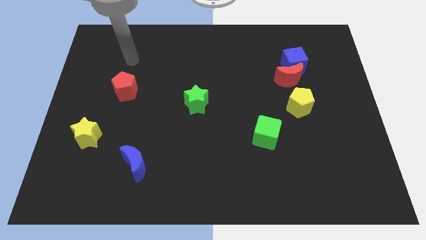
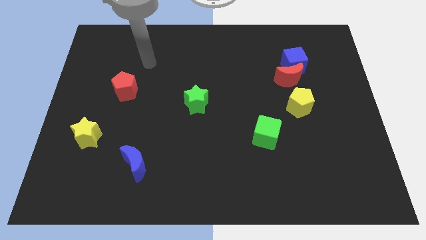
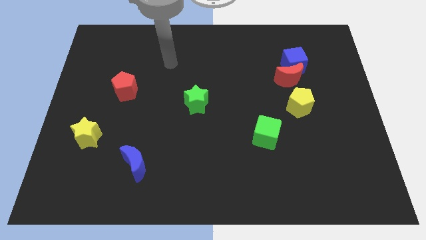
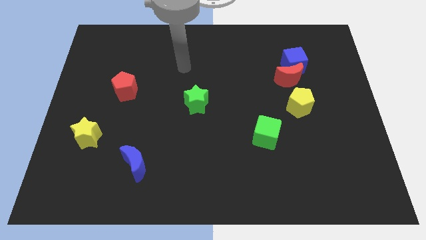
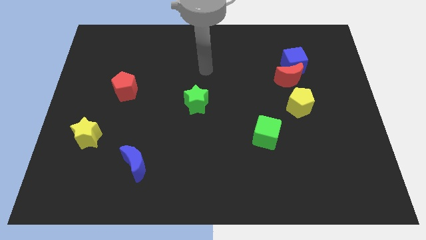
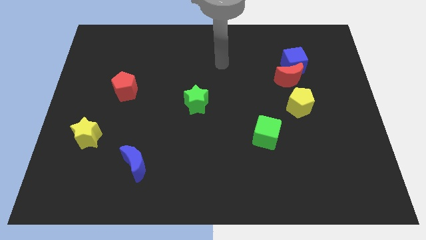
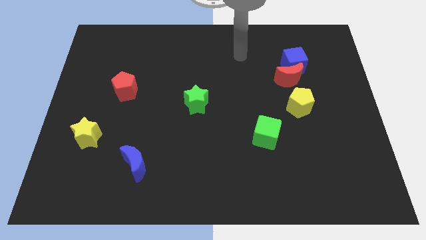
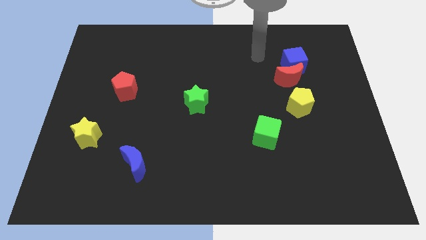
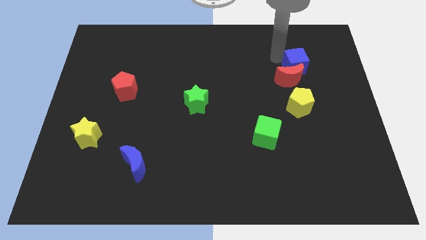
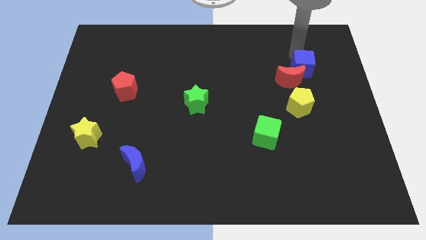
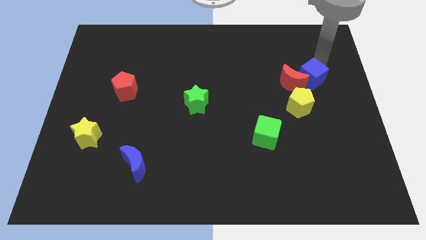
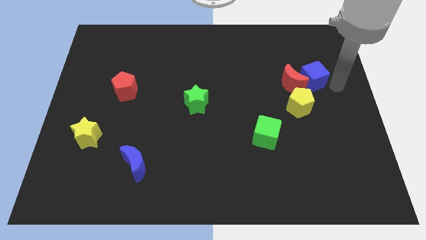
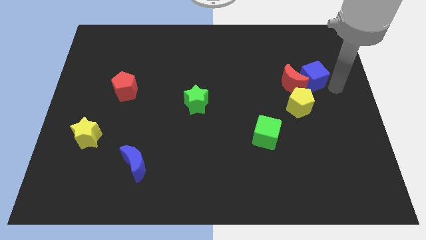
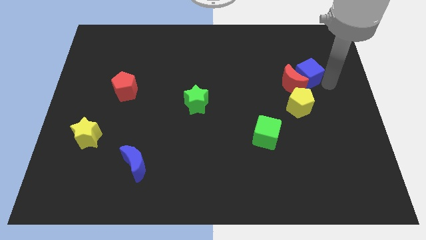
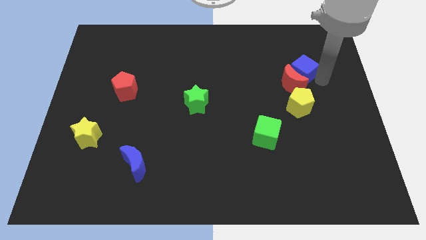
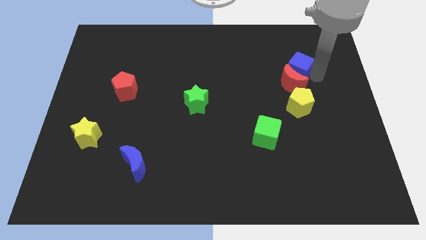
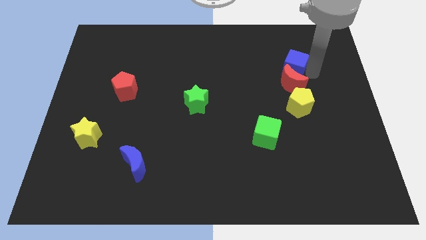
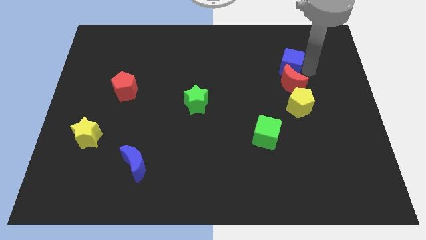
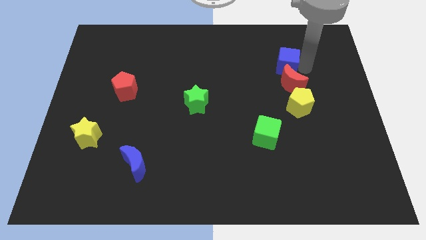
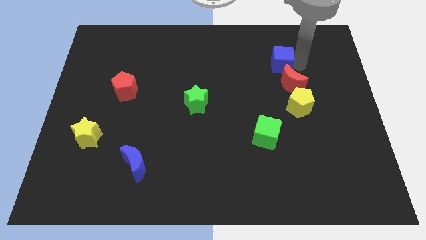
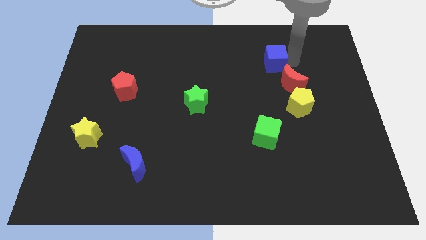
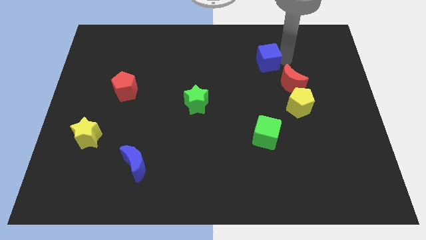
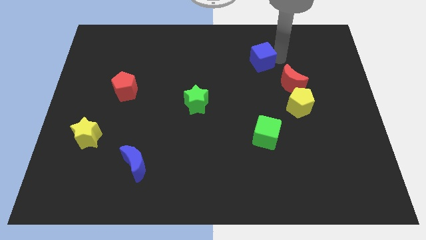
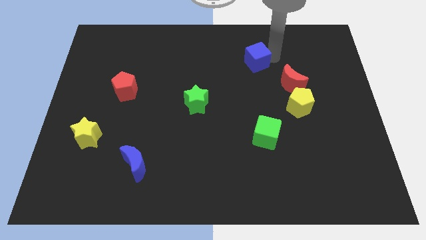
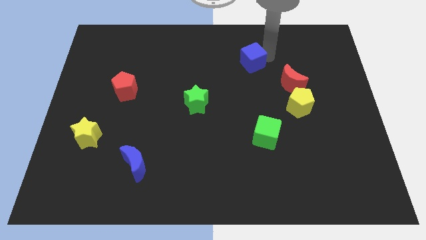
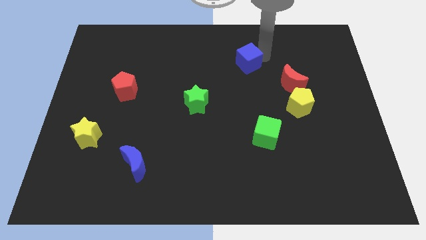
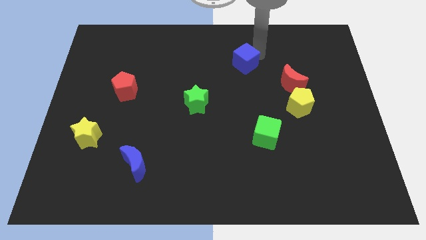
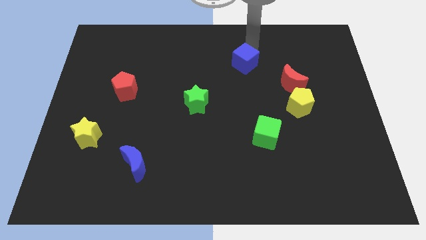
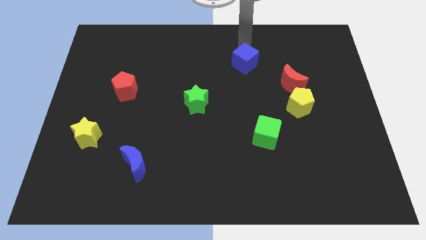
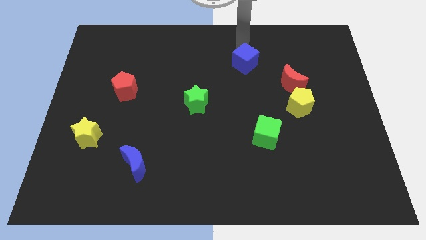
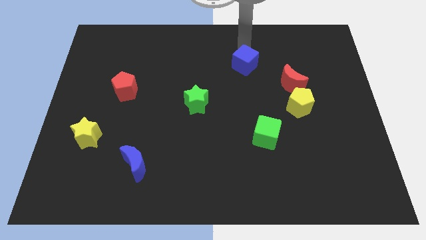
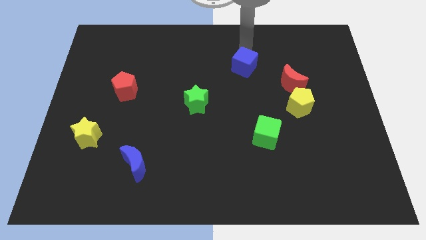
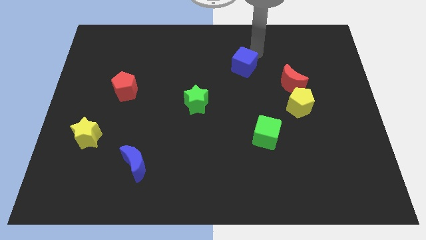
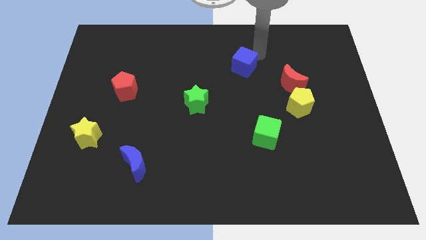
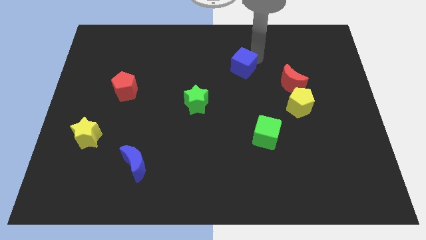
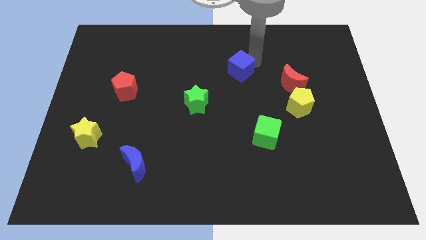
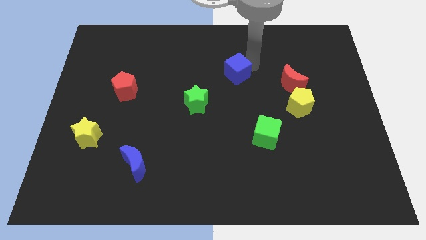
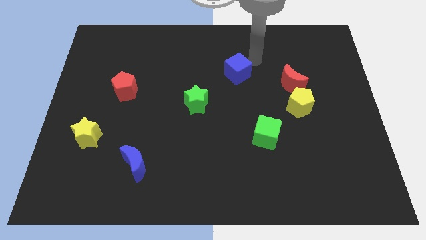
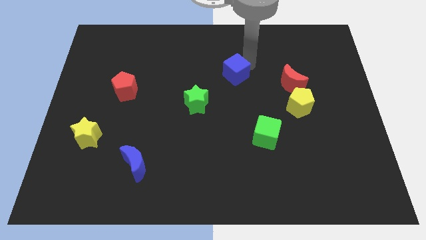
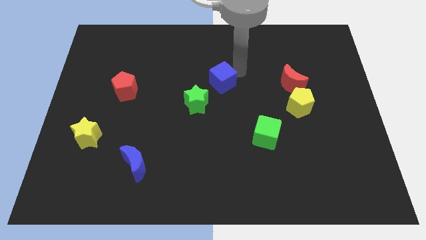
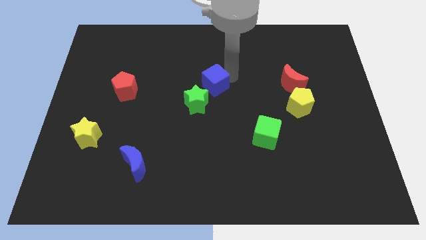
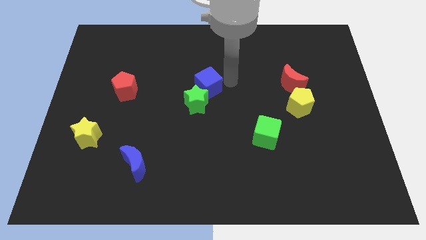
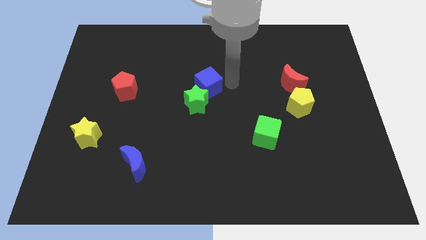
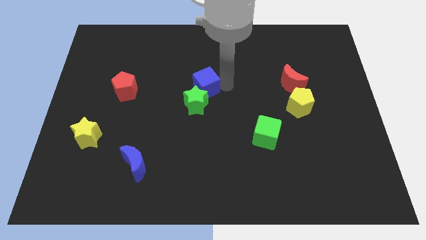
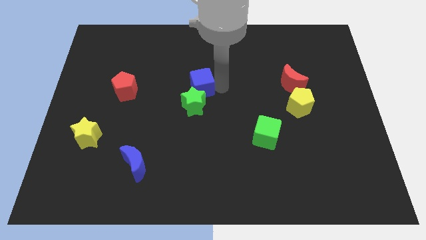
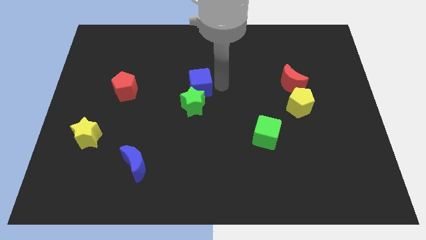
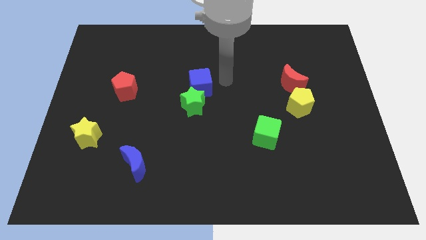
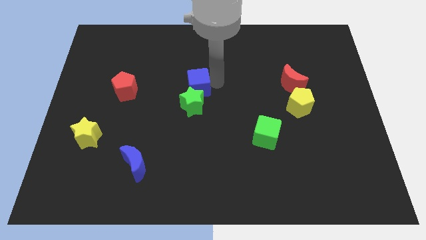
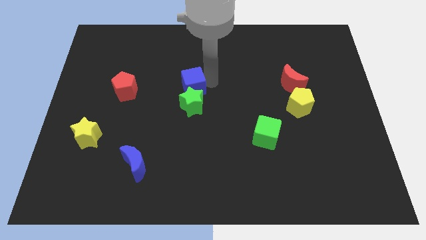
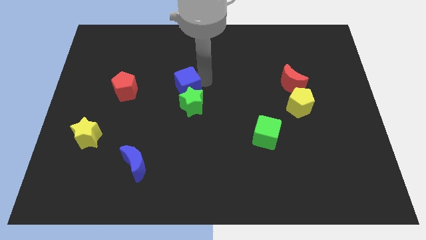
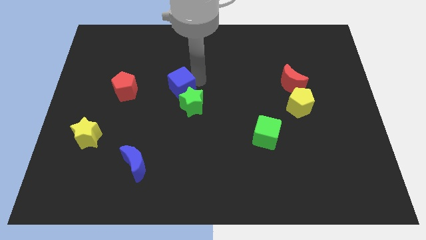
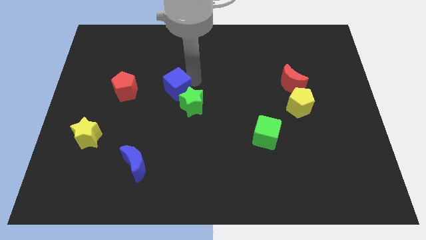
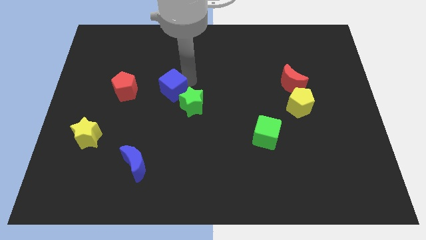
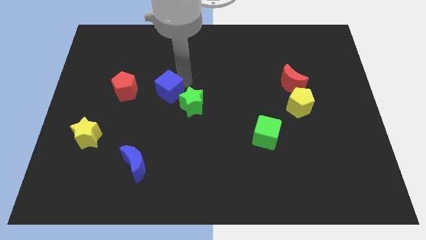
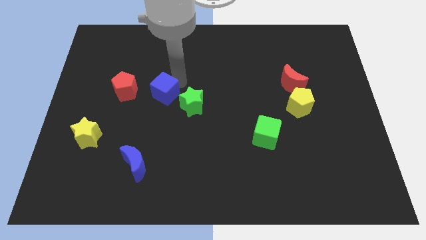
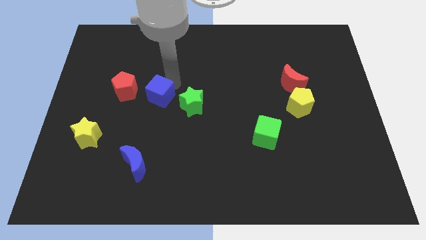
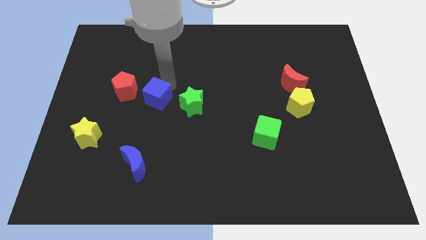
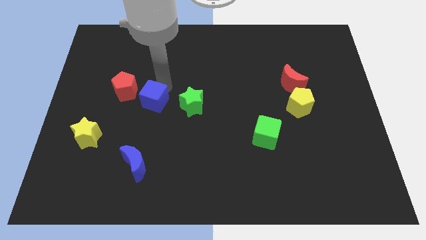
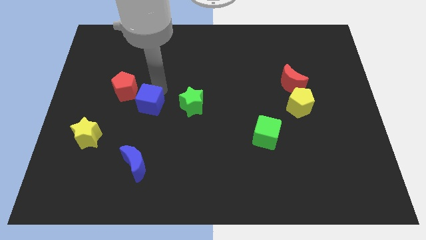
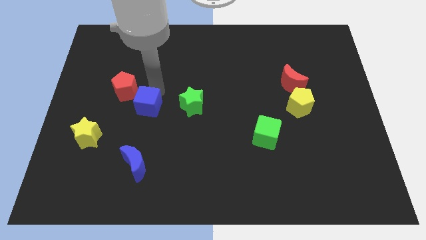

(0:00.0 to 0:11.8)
push the blue cube to the top of the blue moon
